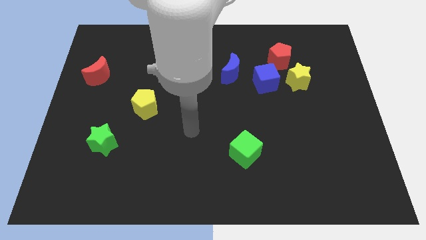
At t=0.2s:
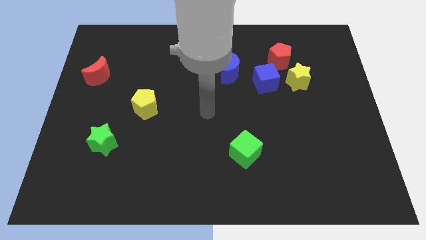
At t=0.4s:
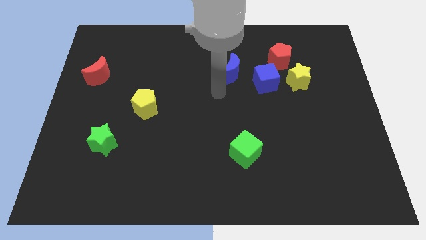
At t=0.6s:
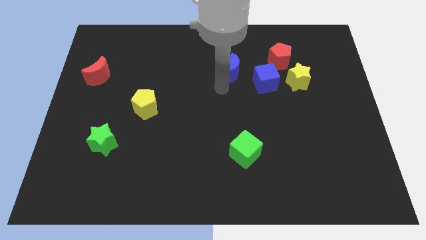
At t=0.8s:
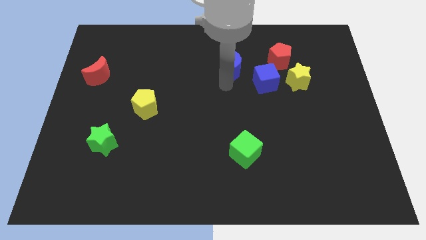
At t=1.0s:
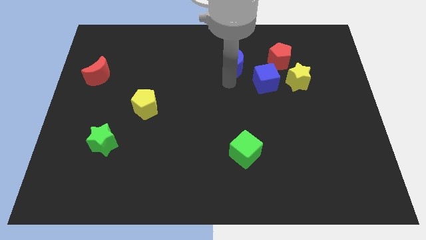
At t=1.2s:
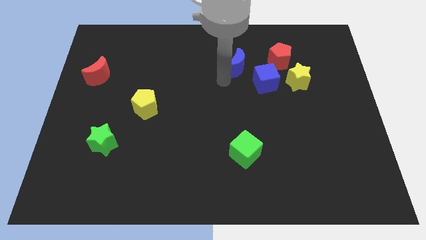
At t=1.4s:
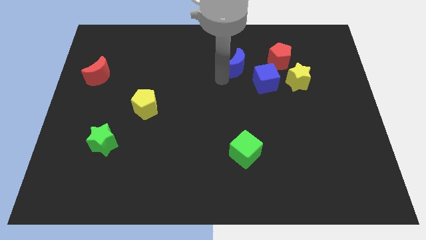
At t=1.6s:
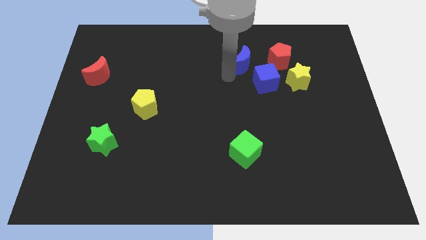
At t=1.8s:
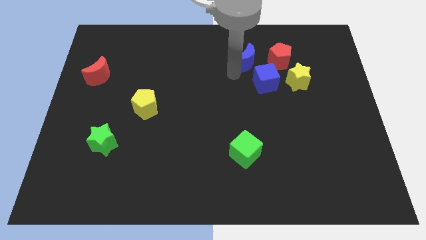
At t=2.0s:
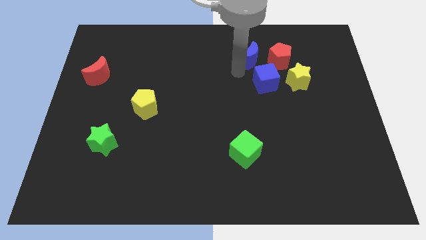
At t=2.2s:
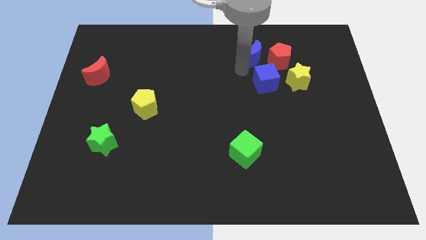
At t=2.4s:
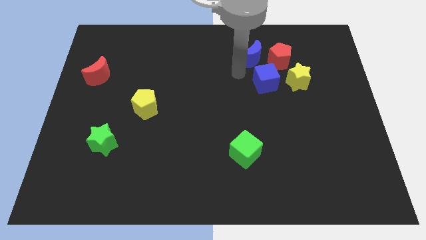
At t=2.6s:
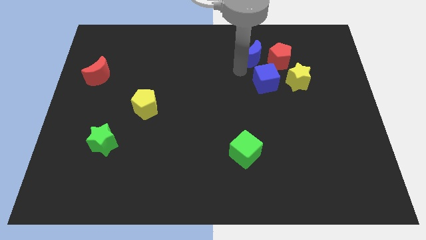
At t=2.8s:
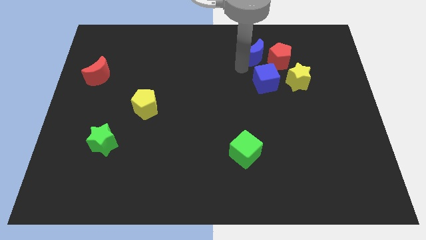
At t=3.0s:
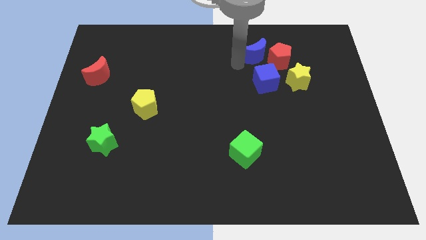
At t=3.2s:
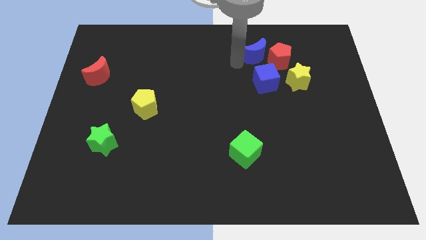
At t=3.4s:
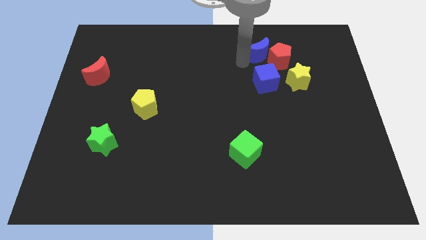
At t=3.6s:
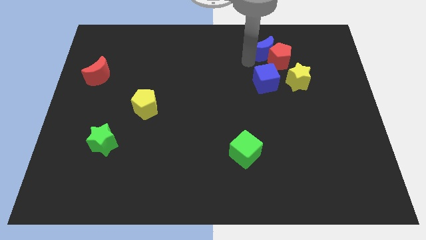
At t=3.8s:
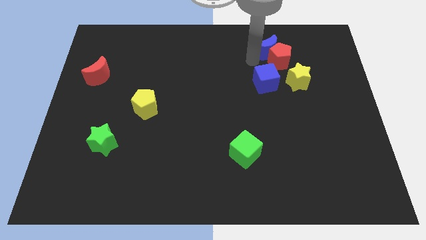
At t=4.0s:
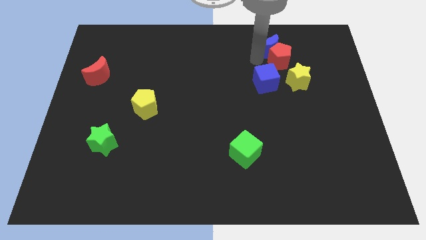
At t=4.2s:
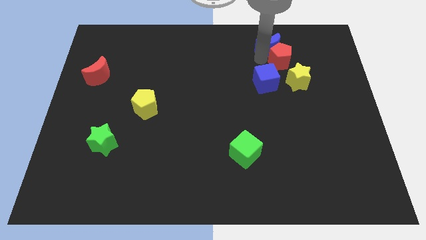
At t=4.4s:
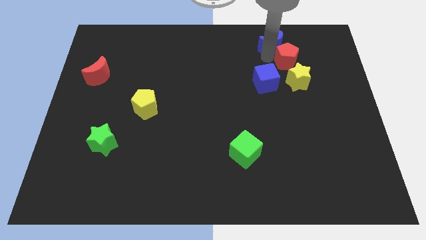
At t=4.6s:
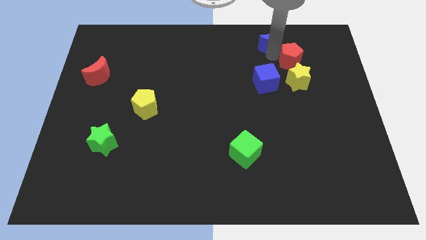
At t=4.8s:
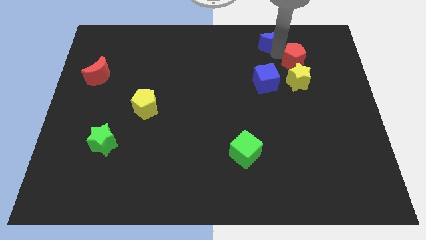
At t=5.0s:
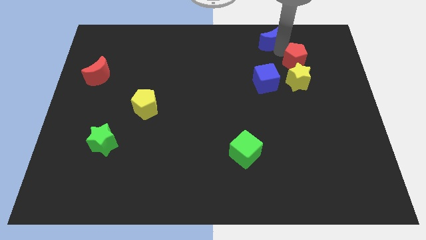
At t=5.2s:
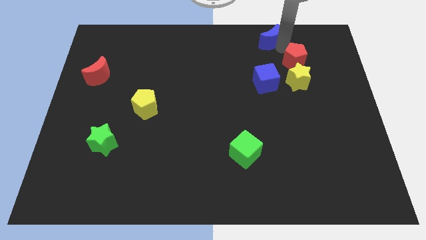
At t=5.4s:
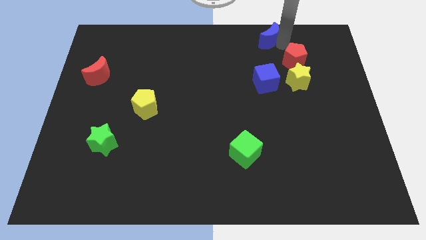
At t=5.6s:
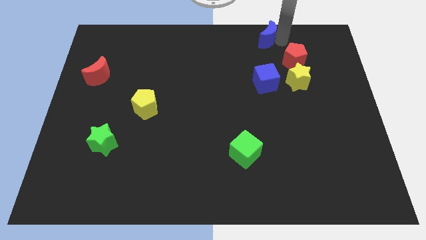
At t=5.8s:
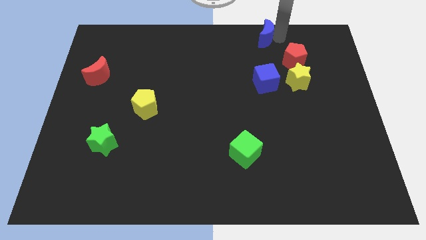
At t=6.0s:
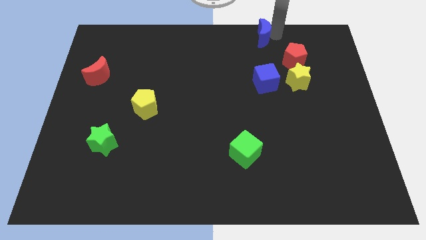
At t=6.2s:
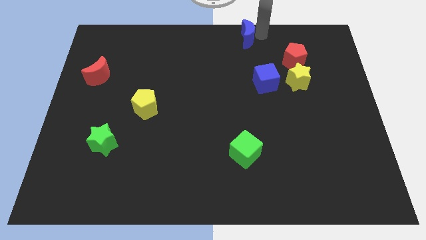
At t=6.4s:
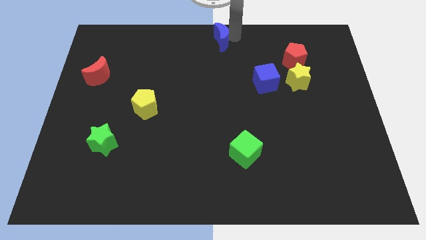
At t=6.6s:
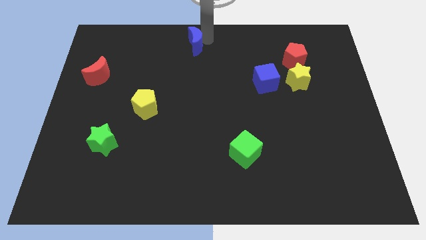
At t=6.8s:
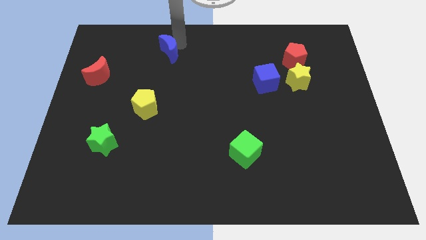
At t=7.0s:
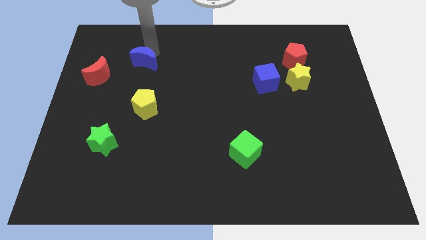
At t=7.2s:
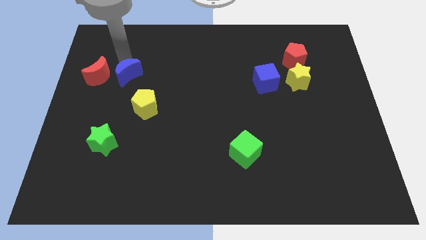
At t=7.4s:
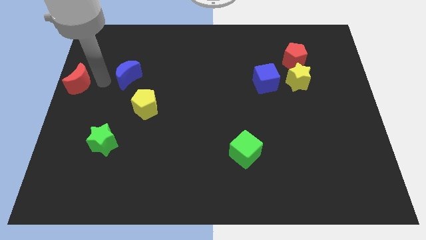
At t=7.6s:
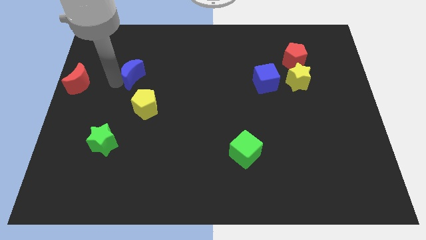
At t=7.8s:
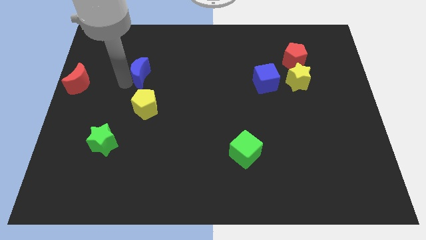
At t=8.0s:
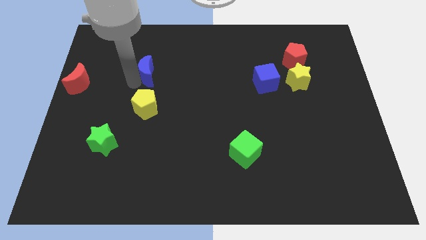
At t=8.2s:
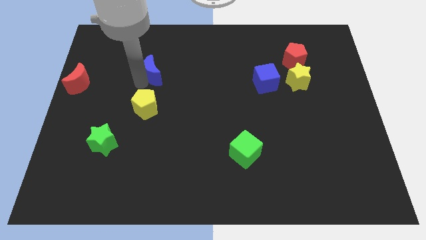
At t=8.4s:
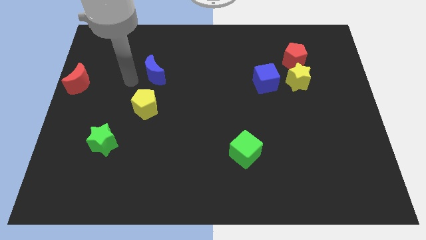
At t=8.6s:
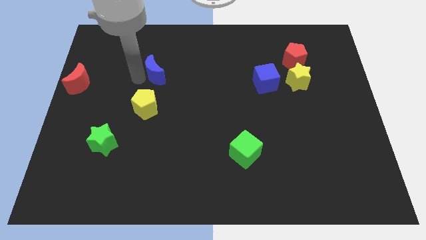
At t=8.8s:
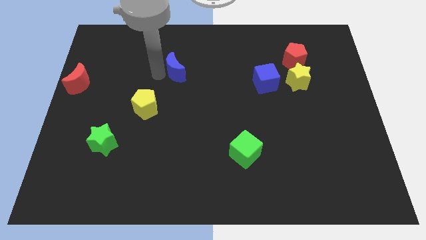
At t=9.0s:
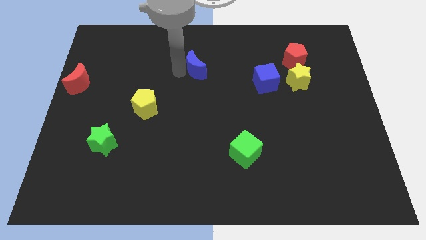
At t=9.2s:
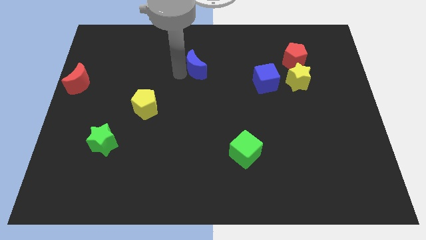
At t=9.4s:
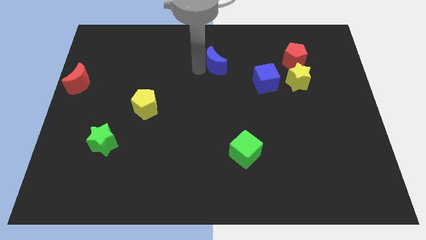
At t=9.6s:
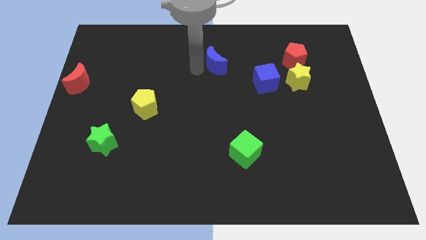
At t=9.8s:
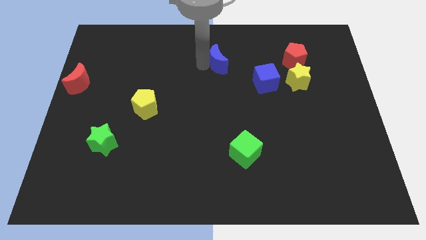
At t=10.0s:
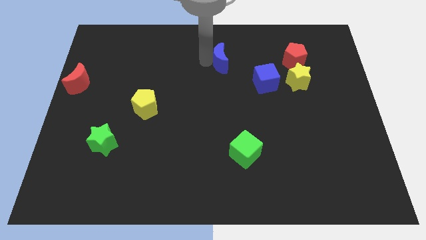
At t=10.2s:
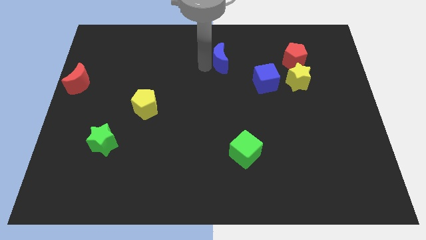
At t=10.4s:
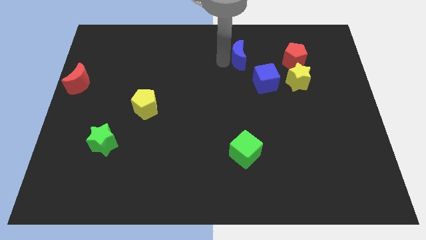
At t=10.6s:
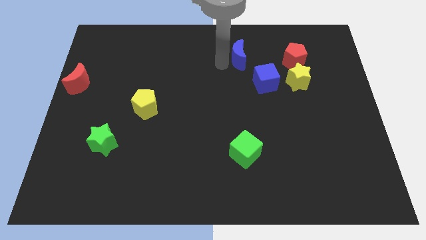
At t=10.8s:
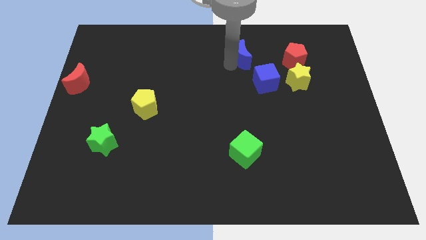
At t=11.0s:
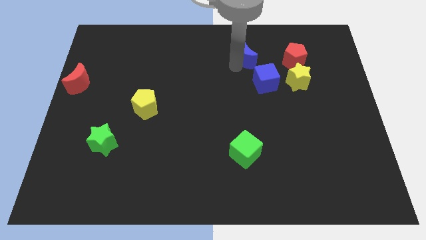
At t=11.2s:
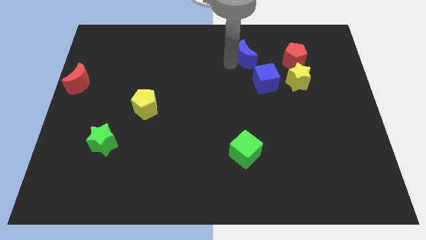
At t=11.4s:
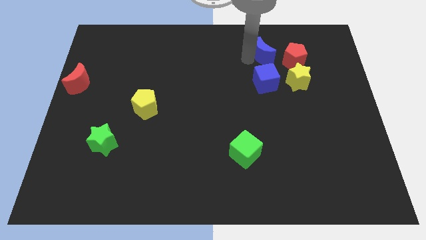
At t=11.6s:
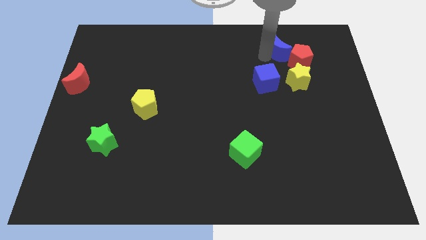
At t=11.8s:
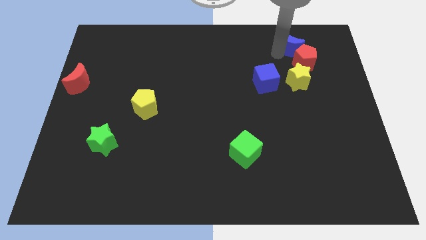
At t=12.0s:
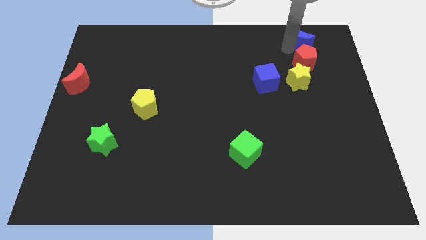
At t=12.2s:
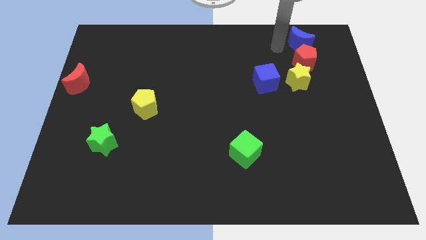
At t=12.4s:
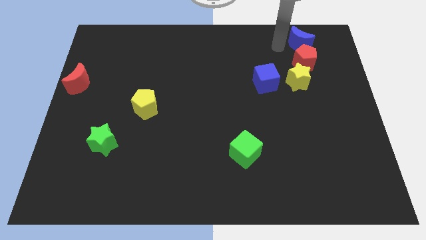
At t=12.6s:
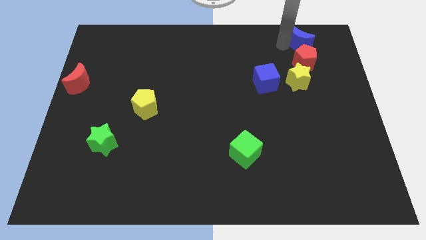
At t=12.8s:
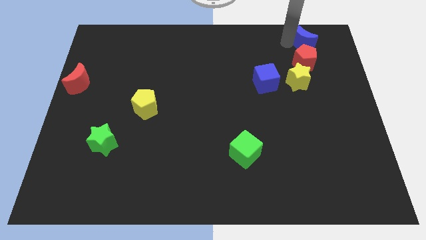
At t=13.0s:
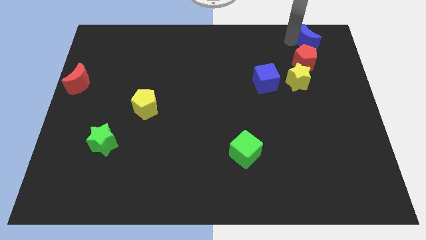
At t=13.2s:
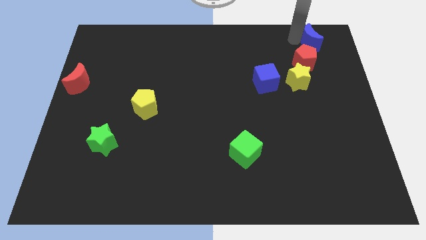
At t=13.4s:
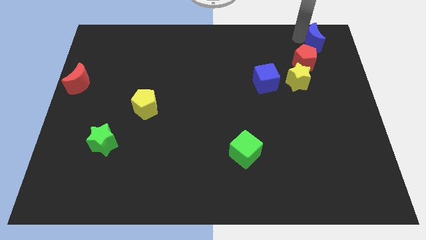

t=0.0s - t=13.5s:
slide the blue moon to the upper right corner

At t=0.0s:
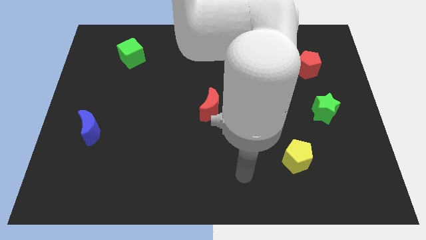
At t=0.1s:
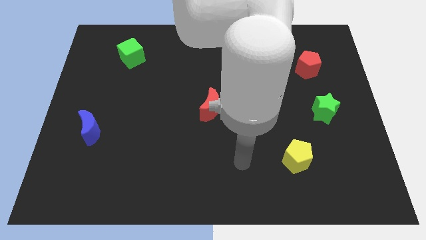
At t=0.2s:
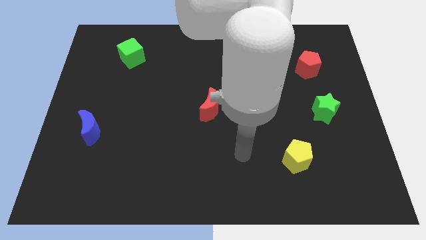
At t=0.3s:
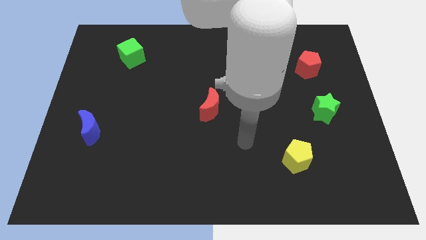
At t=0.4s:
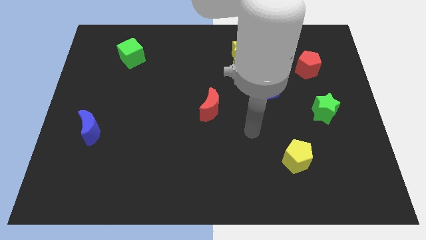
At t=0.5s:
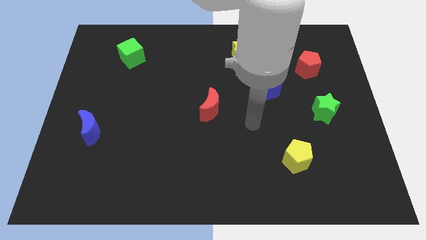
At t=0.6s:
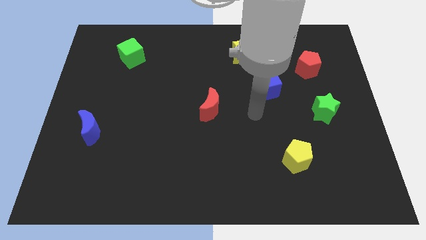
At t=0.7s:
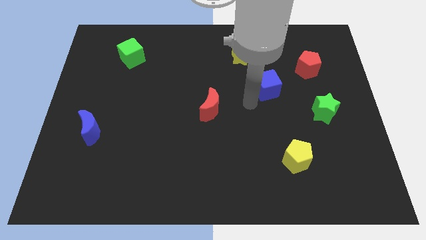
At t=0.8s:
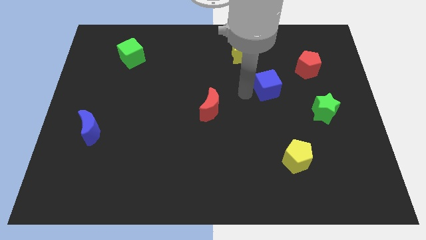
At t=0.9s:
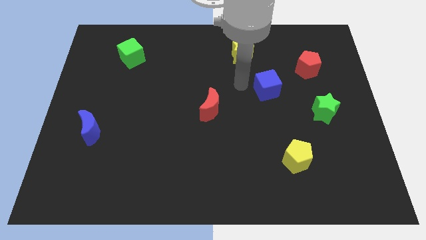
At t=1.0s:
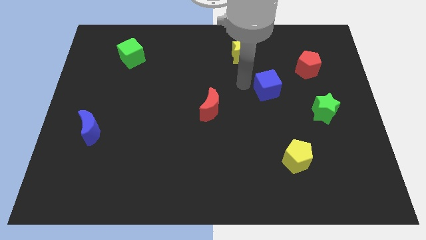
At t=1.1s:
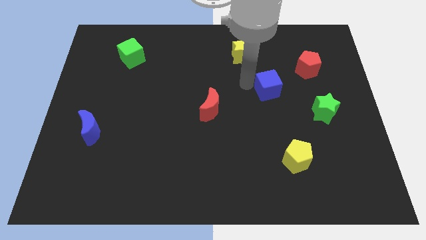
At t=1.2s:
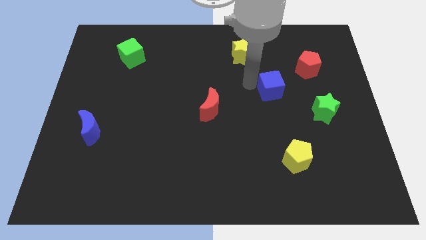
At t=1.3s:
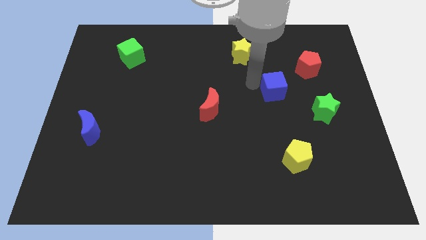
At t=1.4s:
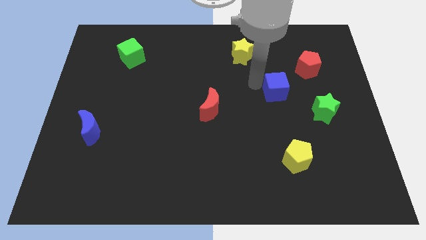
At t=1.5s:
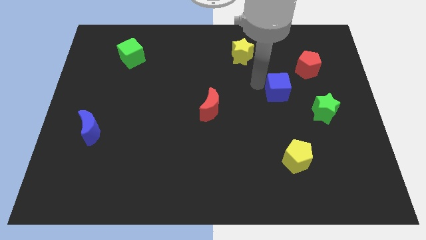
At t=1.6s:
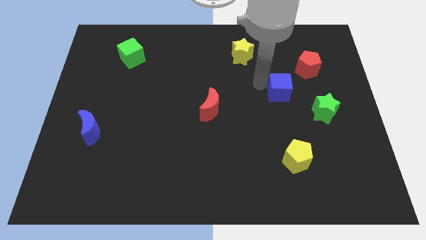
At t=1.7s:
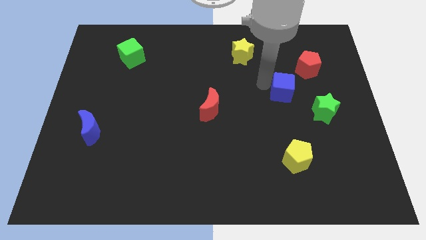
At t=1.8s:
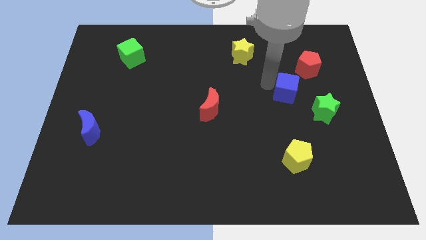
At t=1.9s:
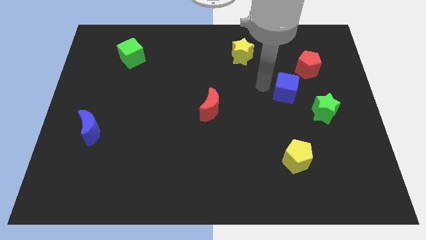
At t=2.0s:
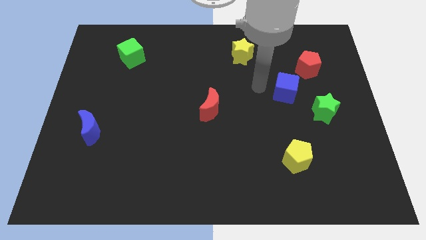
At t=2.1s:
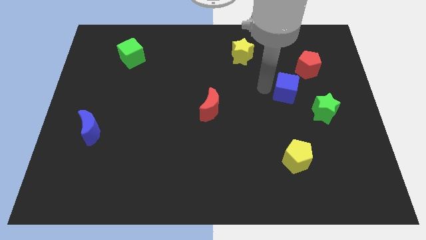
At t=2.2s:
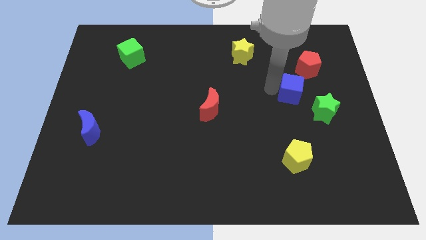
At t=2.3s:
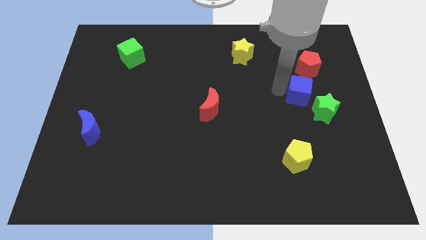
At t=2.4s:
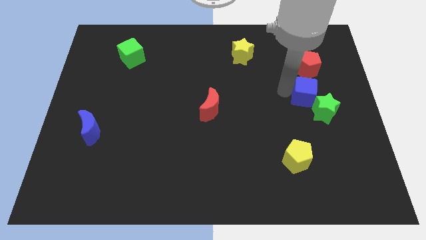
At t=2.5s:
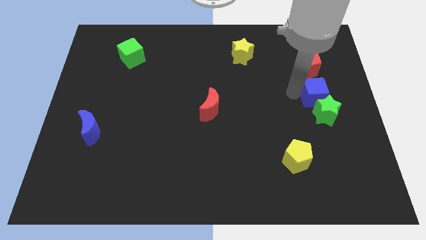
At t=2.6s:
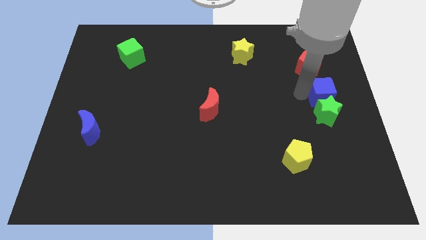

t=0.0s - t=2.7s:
push the blue cube to the right side of the board
